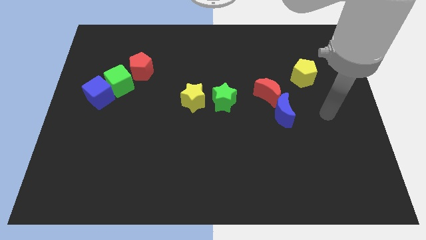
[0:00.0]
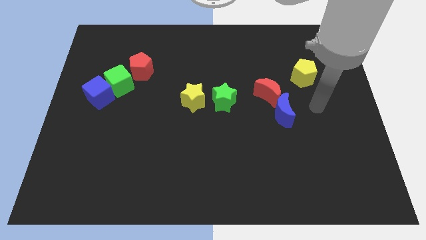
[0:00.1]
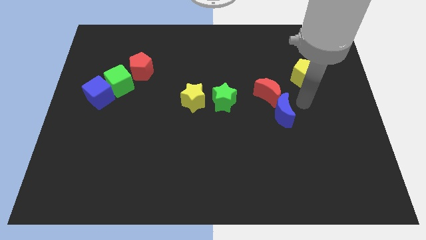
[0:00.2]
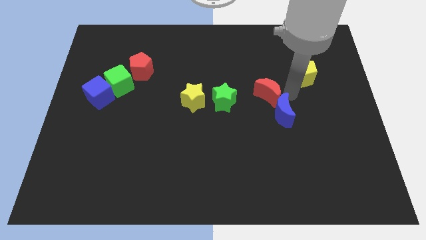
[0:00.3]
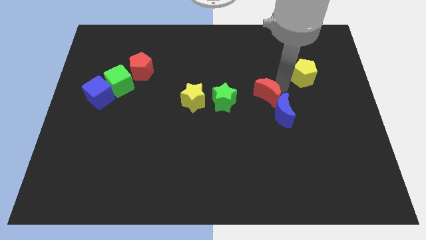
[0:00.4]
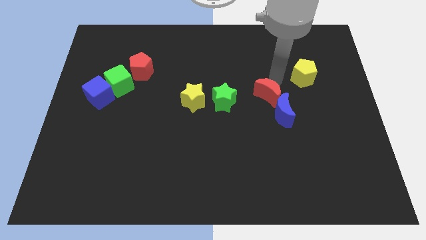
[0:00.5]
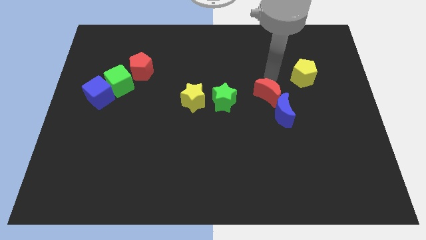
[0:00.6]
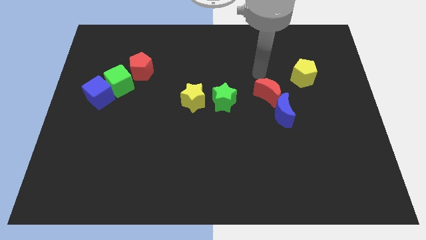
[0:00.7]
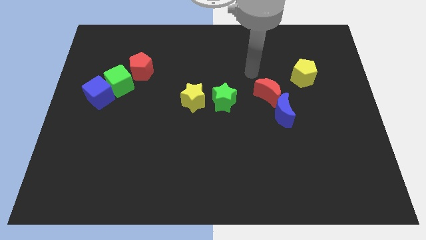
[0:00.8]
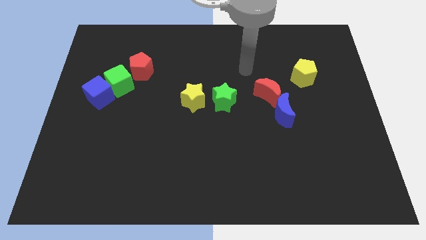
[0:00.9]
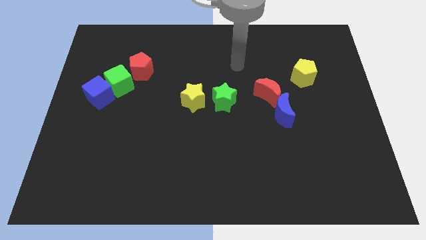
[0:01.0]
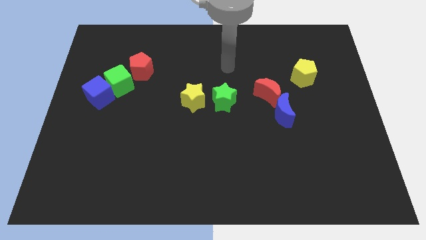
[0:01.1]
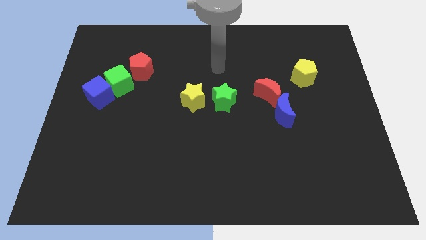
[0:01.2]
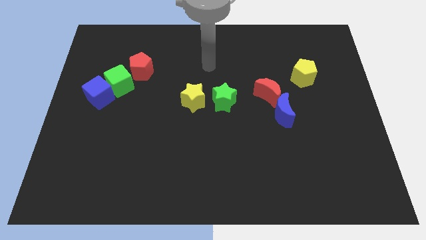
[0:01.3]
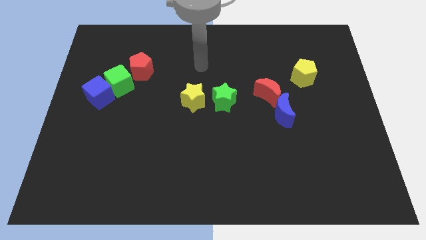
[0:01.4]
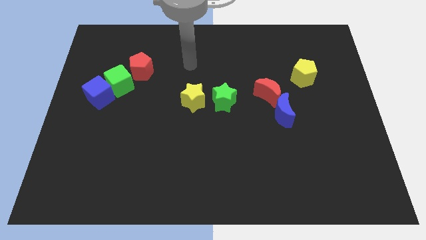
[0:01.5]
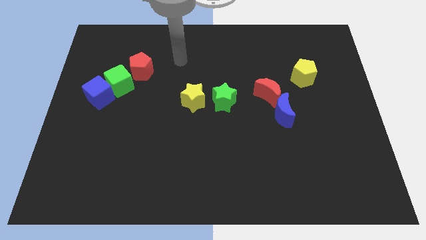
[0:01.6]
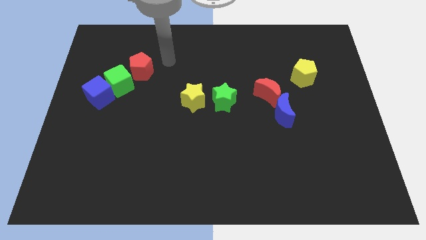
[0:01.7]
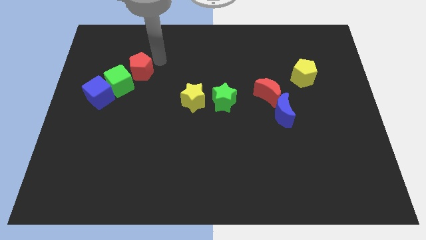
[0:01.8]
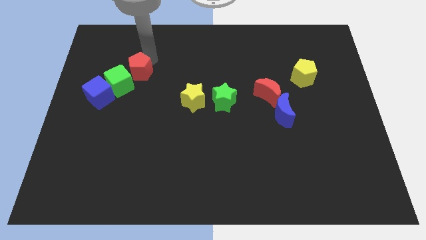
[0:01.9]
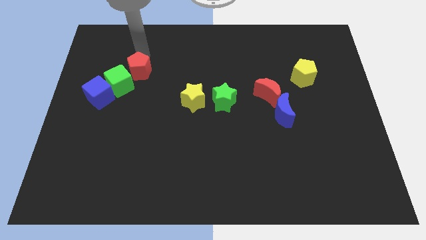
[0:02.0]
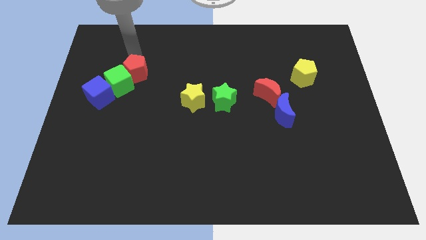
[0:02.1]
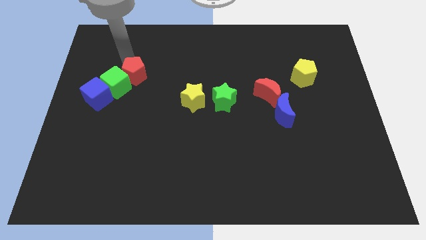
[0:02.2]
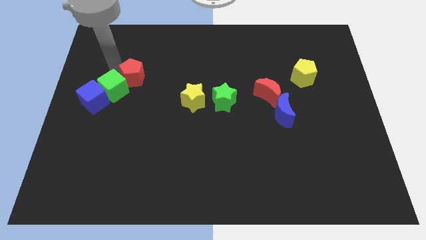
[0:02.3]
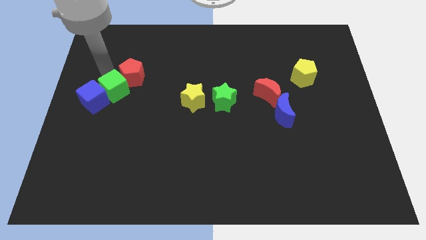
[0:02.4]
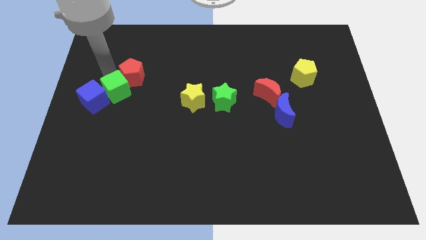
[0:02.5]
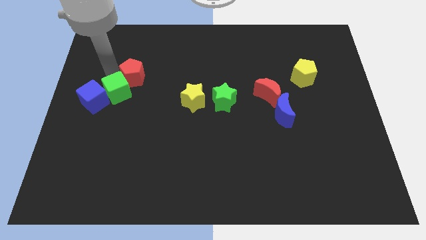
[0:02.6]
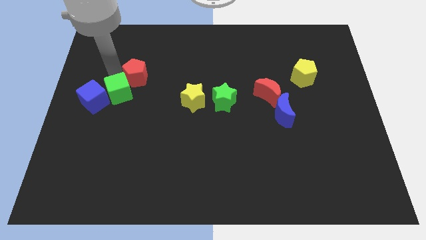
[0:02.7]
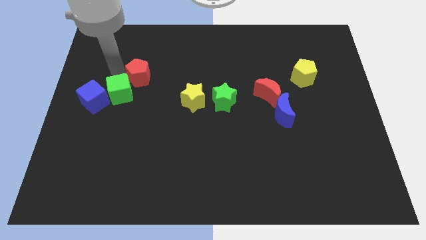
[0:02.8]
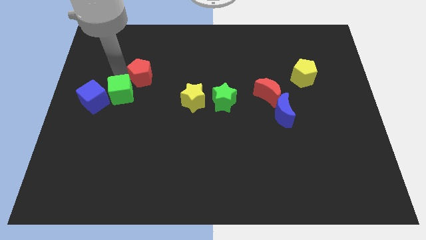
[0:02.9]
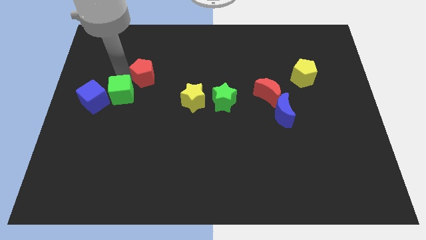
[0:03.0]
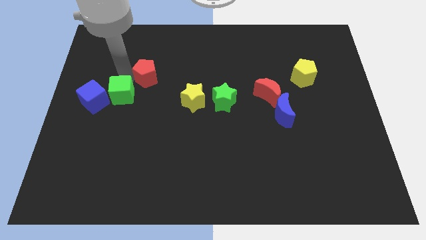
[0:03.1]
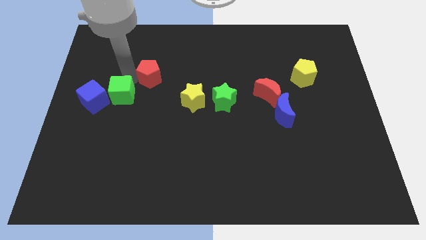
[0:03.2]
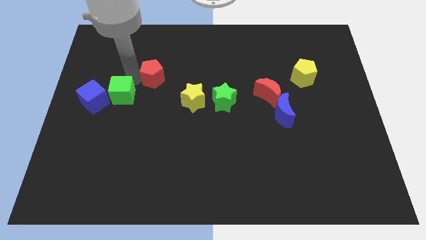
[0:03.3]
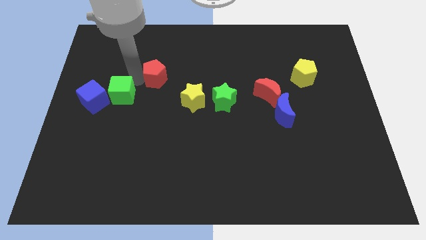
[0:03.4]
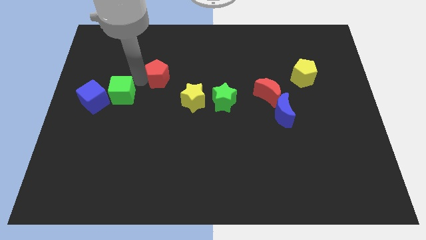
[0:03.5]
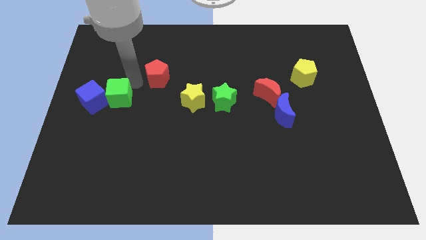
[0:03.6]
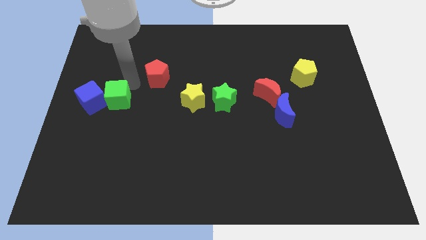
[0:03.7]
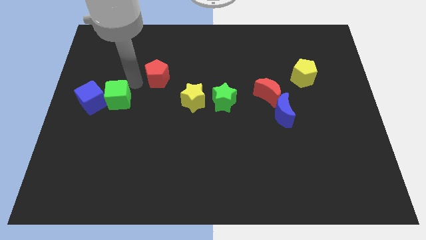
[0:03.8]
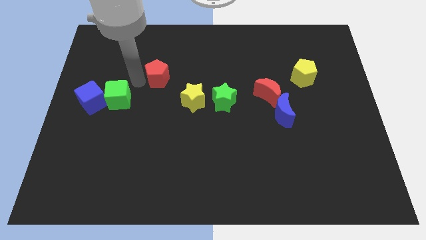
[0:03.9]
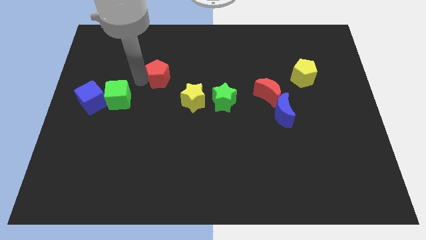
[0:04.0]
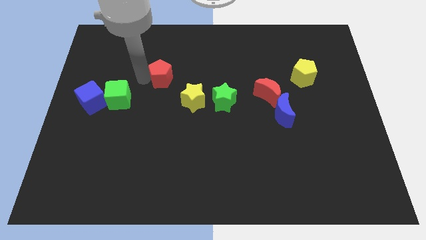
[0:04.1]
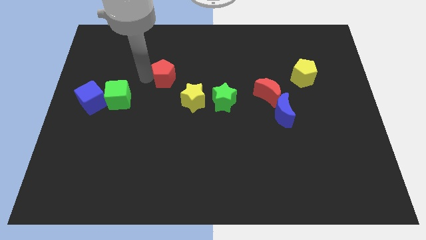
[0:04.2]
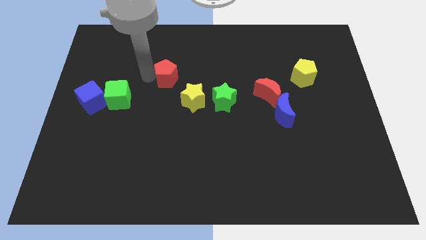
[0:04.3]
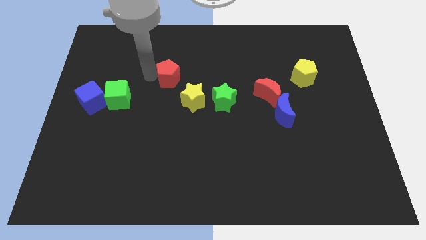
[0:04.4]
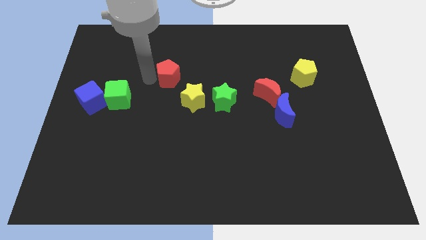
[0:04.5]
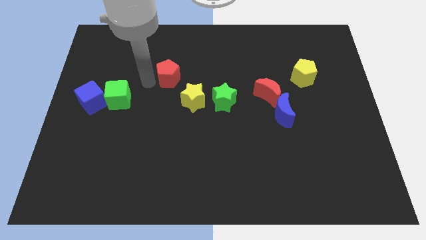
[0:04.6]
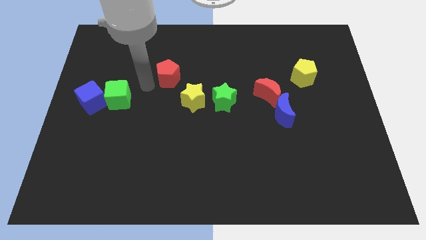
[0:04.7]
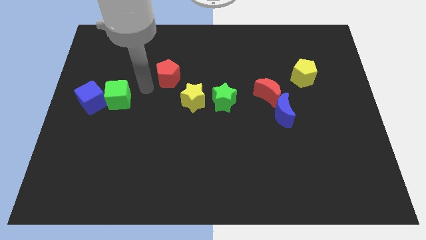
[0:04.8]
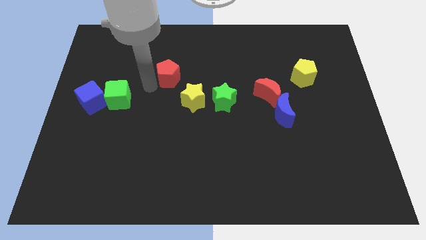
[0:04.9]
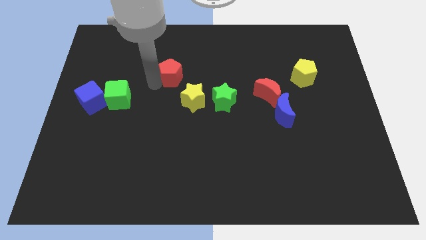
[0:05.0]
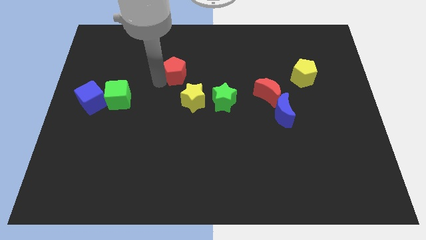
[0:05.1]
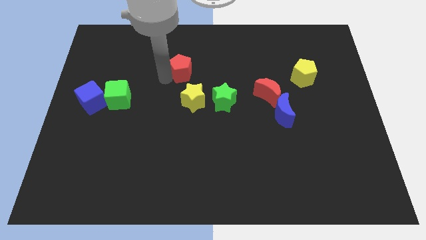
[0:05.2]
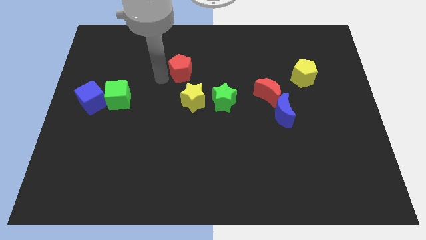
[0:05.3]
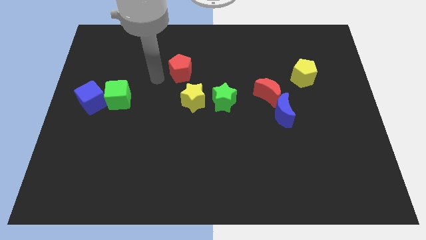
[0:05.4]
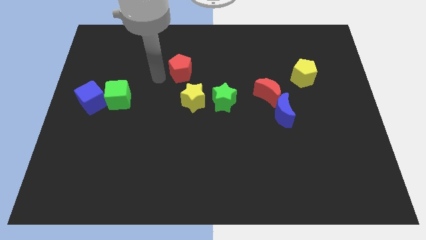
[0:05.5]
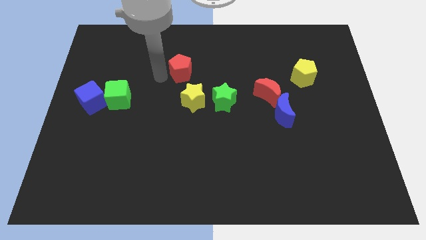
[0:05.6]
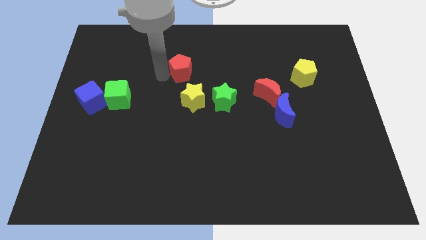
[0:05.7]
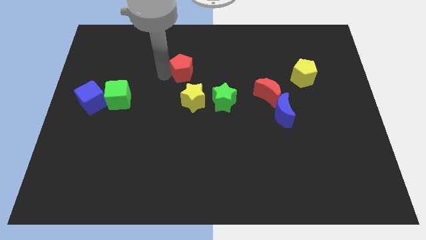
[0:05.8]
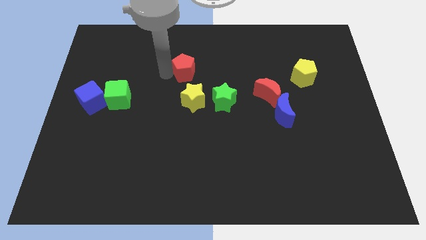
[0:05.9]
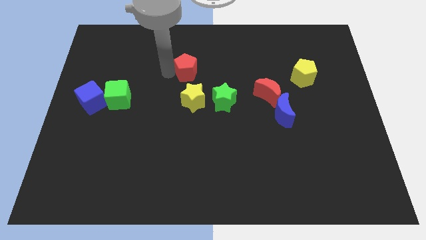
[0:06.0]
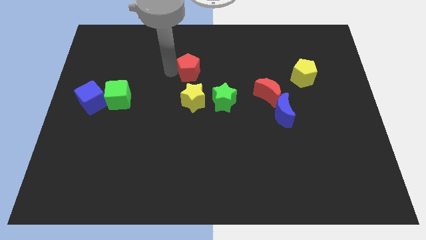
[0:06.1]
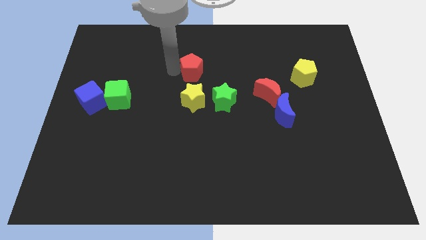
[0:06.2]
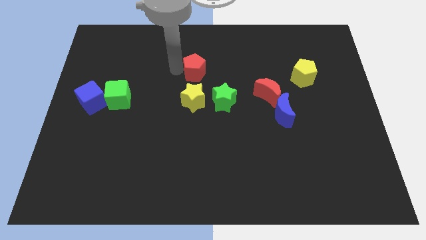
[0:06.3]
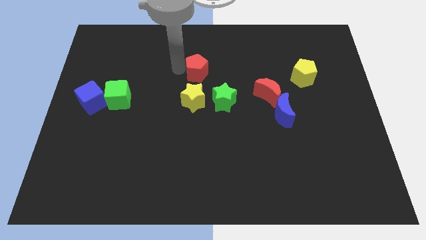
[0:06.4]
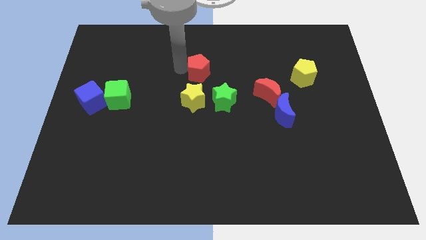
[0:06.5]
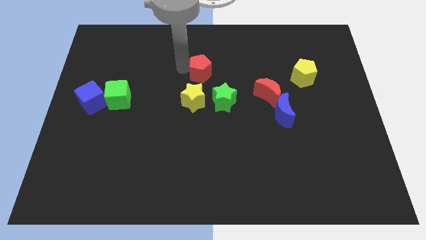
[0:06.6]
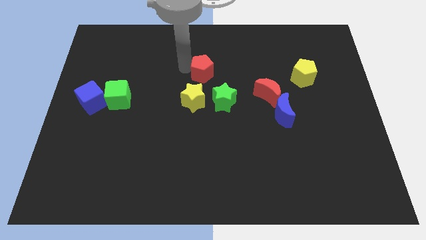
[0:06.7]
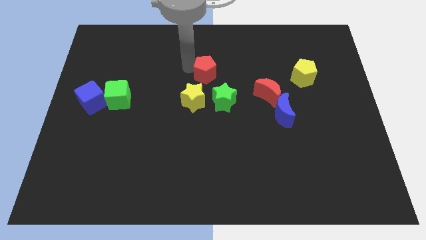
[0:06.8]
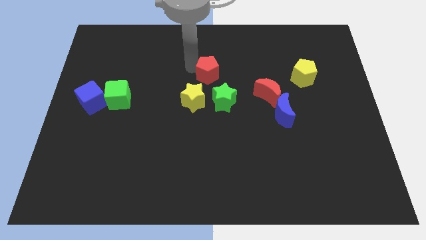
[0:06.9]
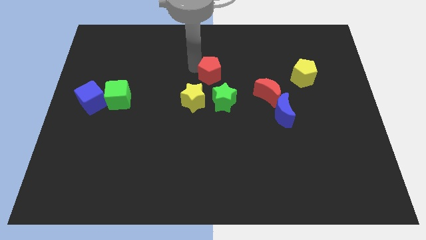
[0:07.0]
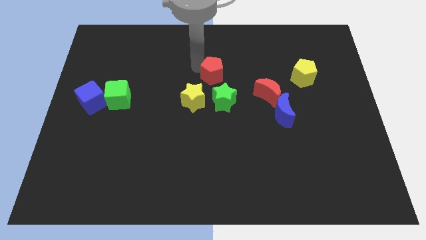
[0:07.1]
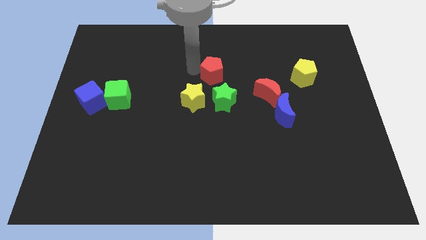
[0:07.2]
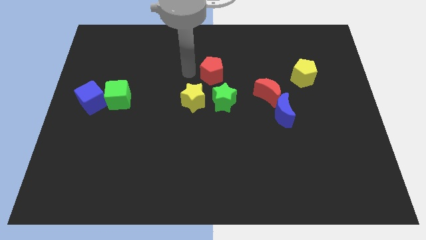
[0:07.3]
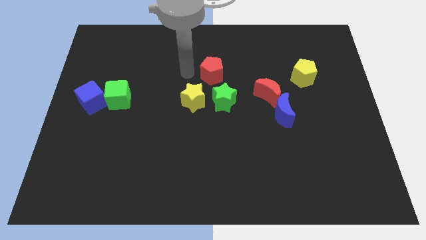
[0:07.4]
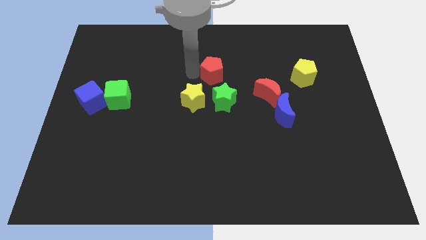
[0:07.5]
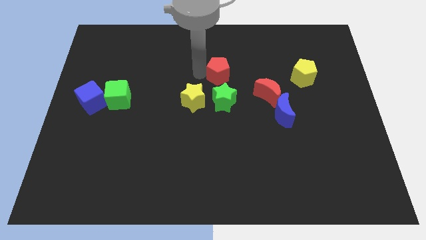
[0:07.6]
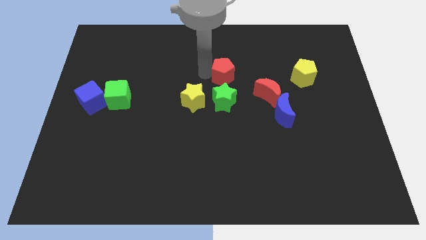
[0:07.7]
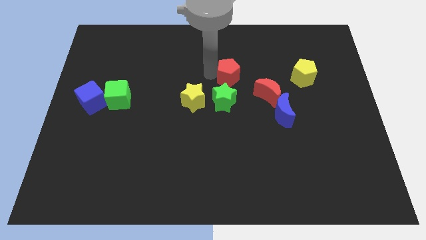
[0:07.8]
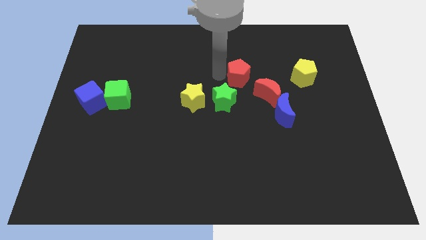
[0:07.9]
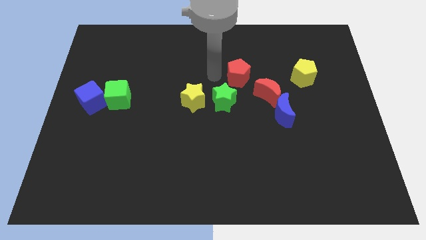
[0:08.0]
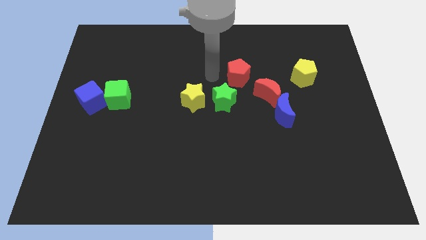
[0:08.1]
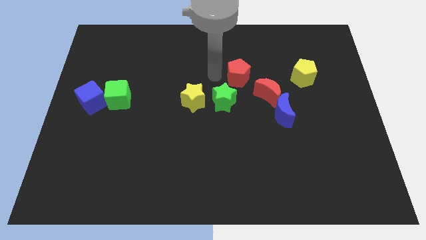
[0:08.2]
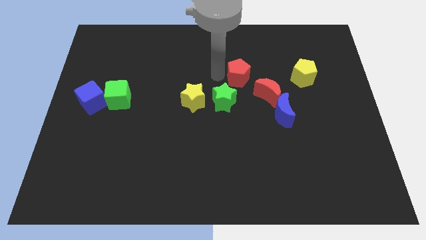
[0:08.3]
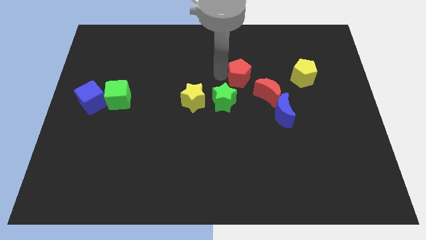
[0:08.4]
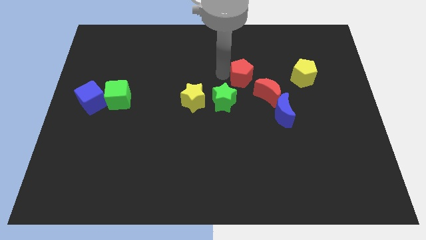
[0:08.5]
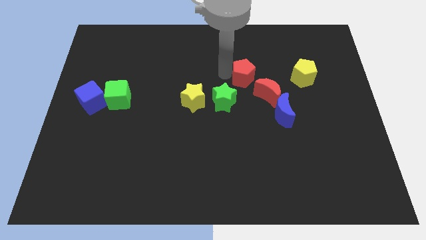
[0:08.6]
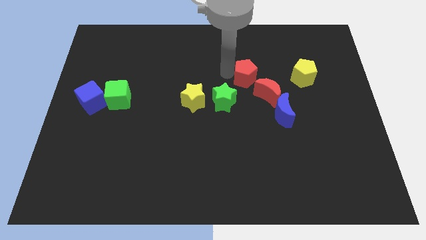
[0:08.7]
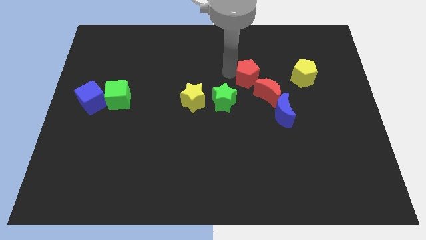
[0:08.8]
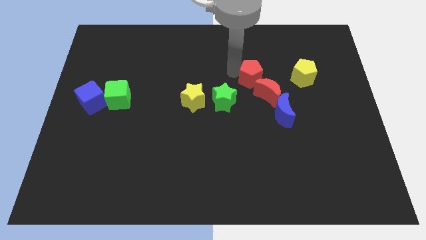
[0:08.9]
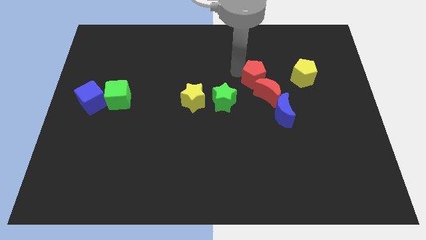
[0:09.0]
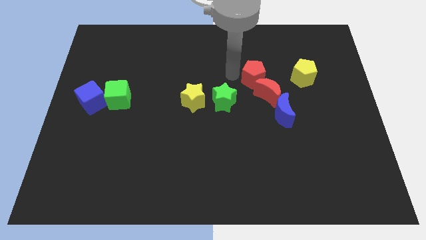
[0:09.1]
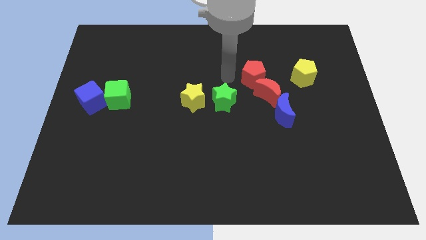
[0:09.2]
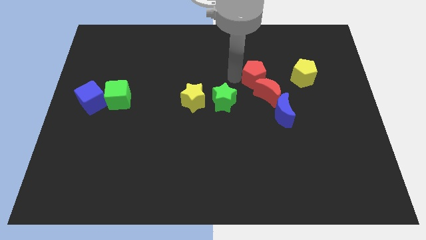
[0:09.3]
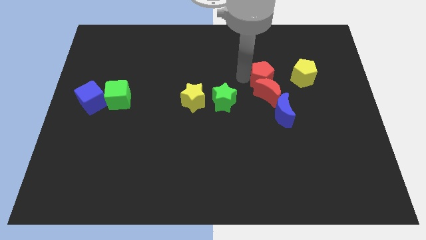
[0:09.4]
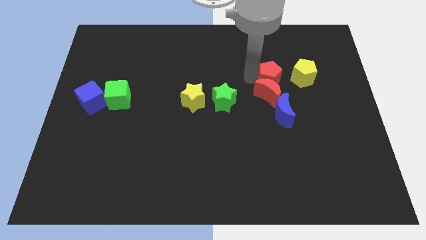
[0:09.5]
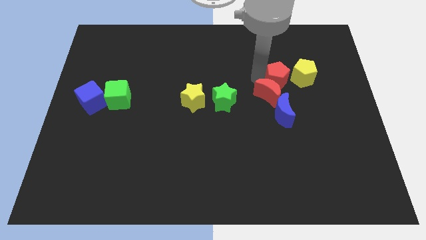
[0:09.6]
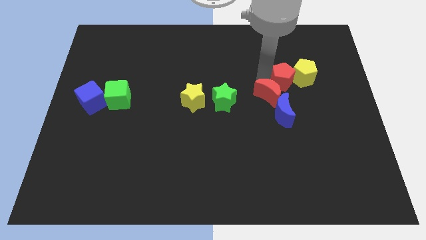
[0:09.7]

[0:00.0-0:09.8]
slide the red pentagon to the yellow pentagon
